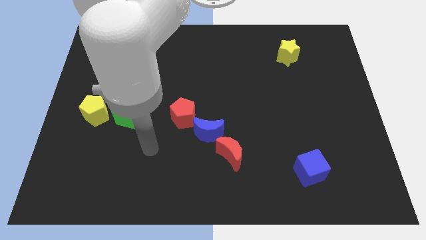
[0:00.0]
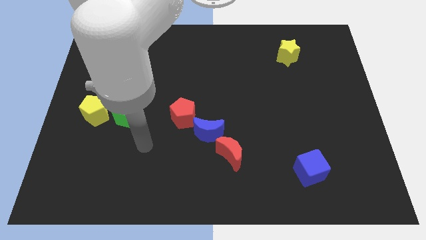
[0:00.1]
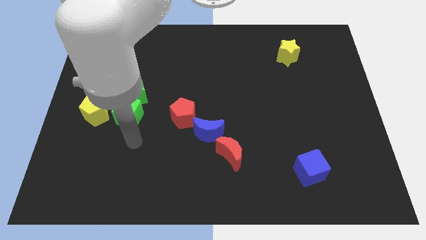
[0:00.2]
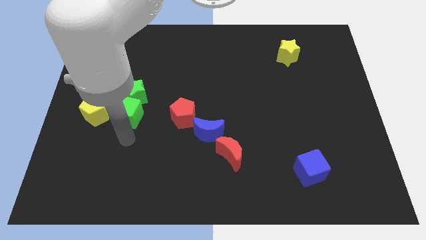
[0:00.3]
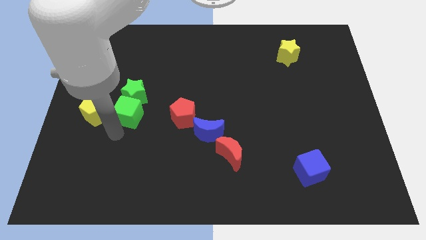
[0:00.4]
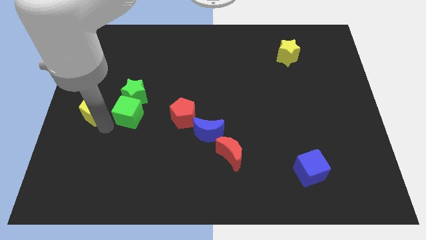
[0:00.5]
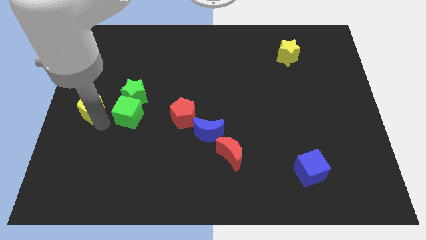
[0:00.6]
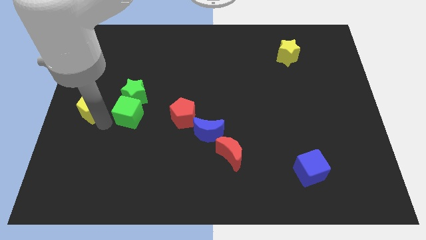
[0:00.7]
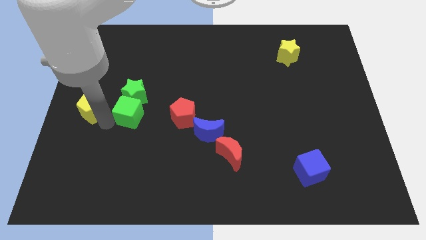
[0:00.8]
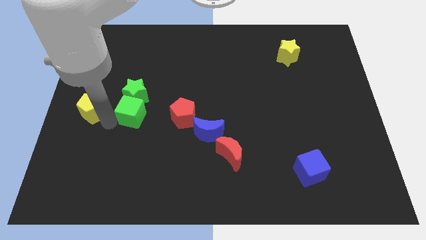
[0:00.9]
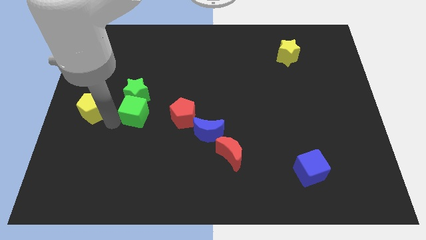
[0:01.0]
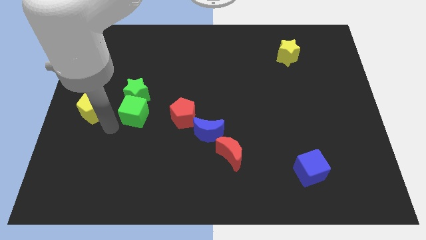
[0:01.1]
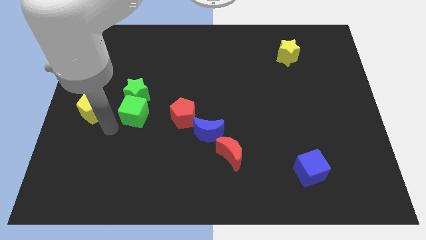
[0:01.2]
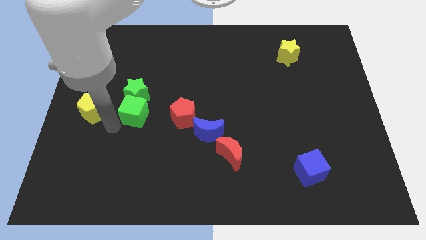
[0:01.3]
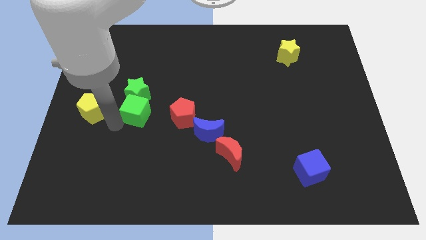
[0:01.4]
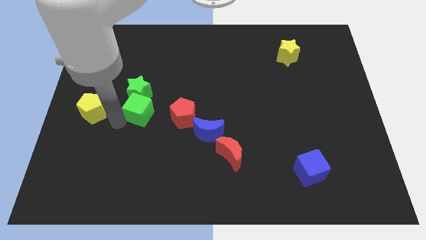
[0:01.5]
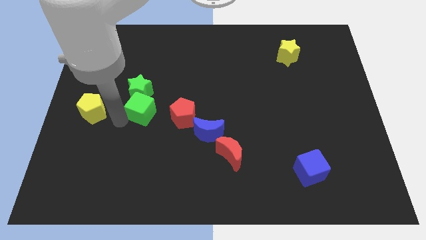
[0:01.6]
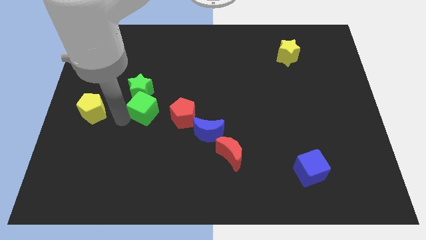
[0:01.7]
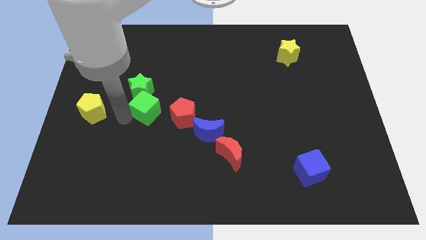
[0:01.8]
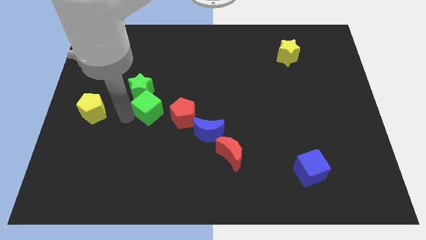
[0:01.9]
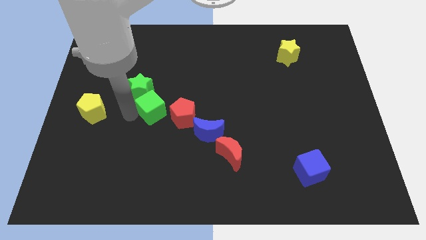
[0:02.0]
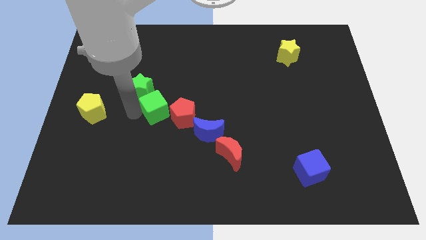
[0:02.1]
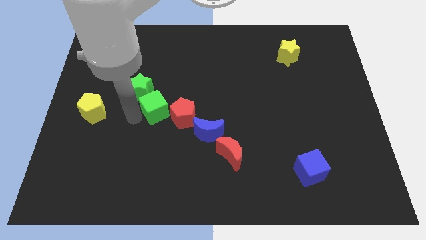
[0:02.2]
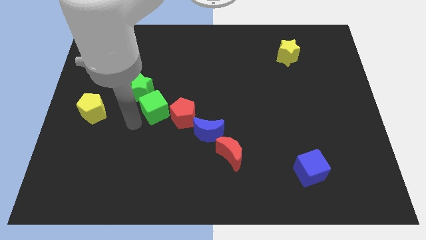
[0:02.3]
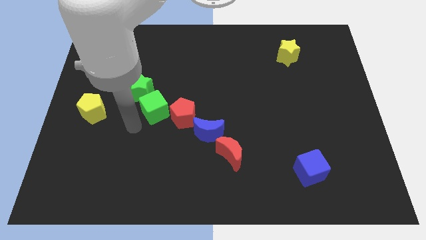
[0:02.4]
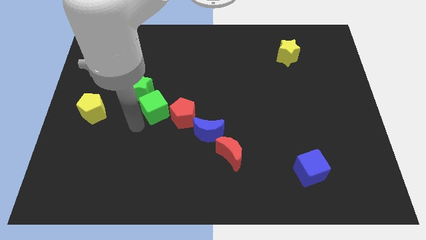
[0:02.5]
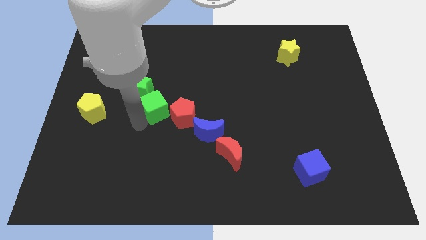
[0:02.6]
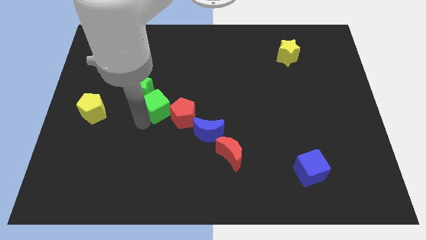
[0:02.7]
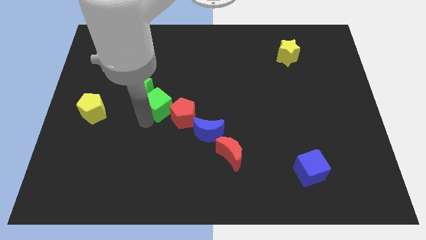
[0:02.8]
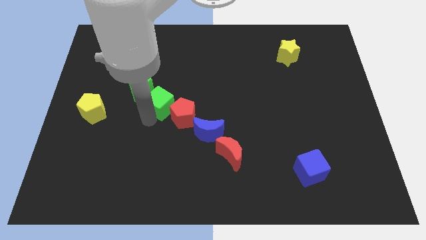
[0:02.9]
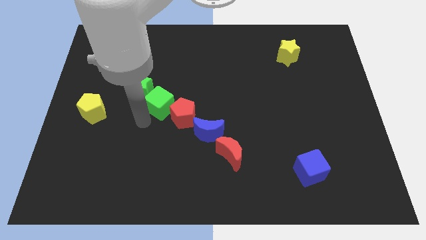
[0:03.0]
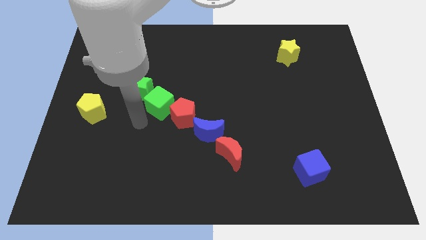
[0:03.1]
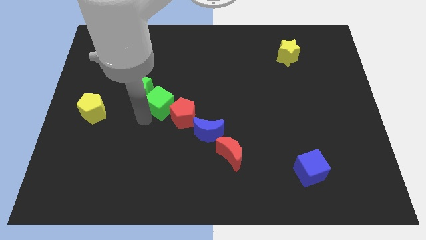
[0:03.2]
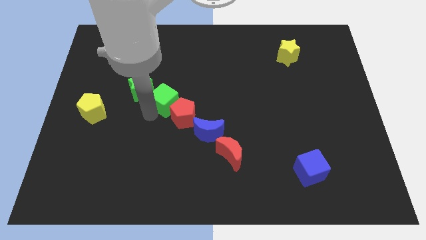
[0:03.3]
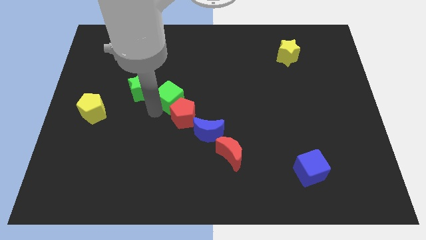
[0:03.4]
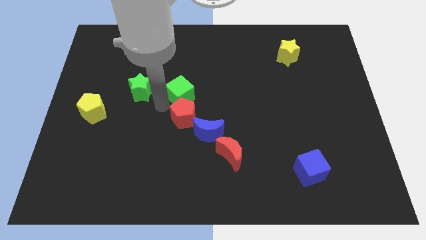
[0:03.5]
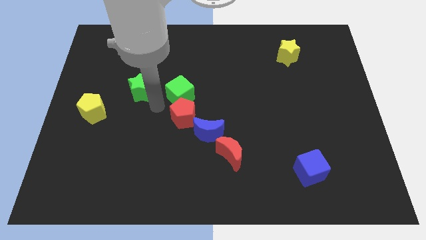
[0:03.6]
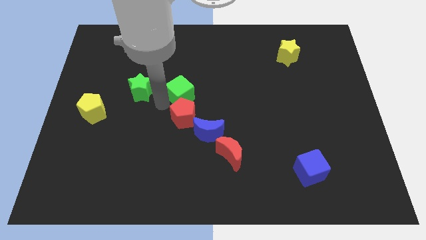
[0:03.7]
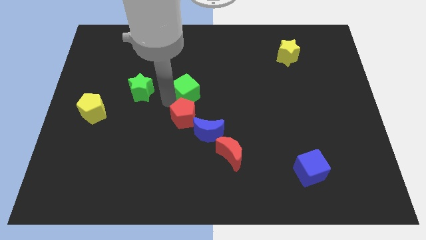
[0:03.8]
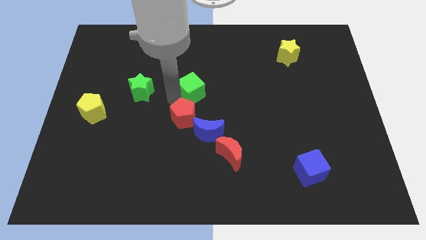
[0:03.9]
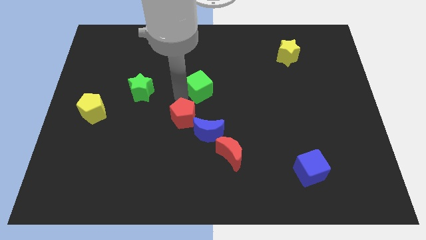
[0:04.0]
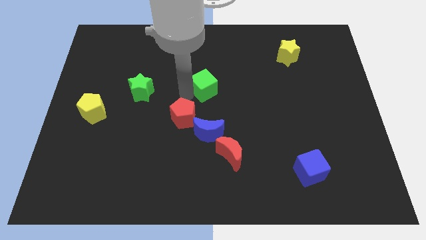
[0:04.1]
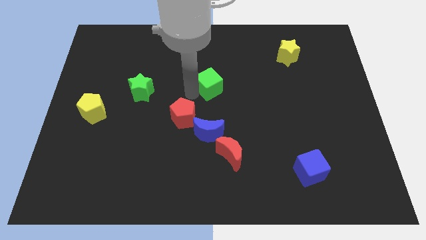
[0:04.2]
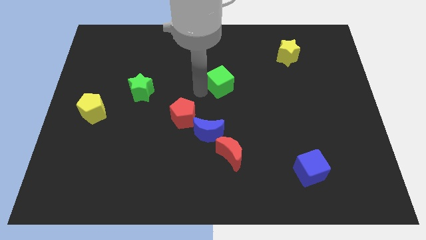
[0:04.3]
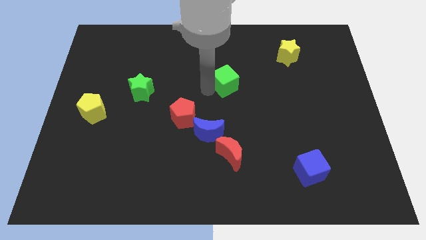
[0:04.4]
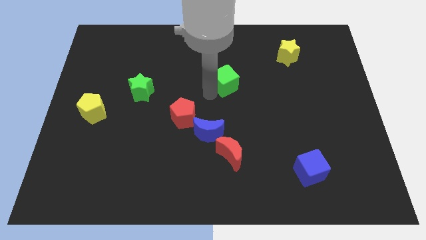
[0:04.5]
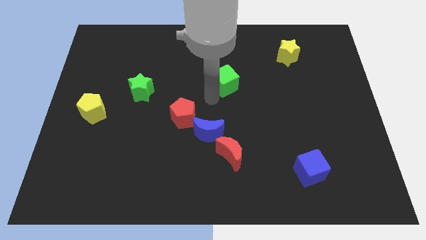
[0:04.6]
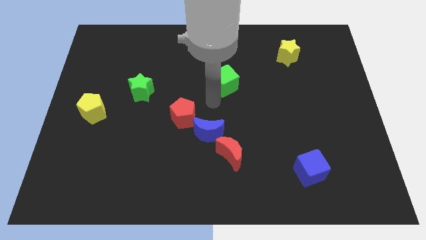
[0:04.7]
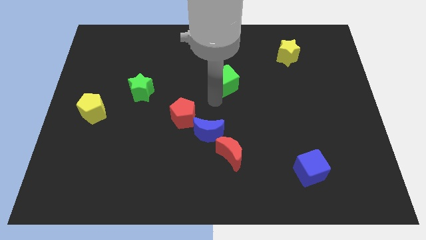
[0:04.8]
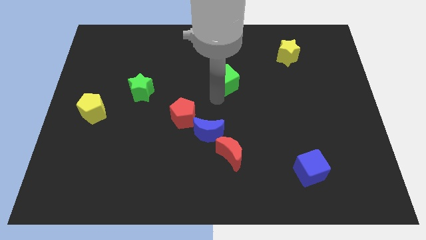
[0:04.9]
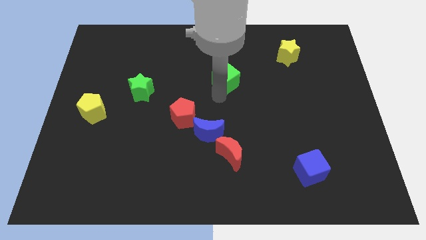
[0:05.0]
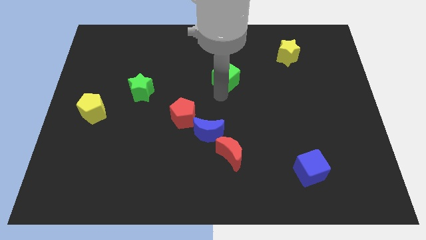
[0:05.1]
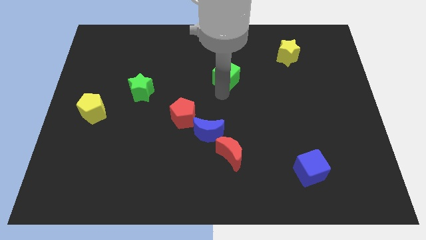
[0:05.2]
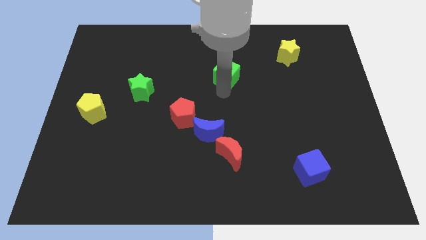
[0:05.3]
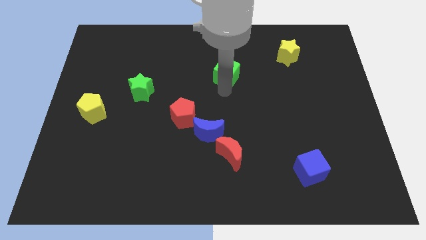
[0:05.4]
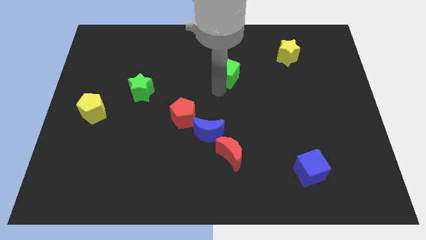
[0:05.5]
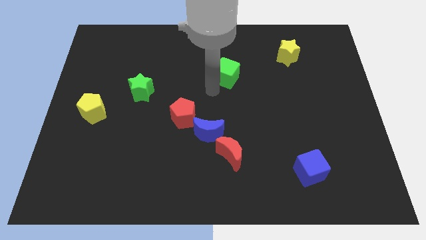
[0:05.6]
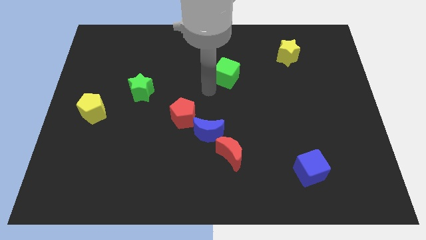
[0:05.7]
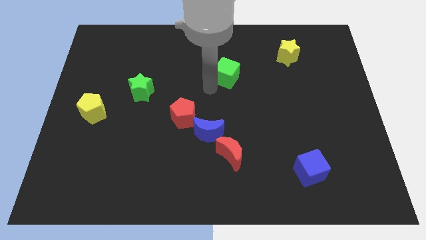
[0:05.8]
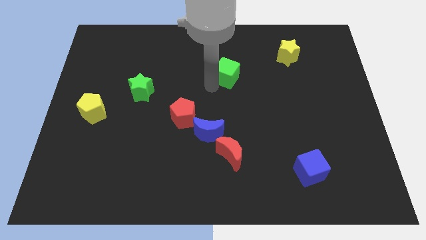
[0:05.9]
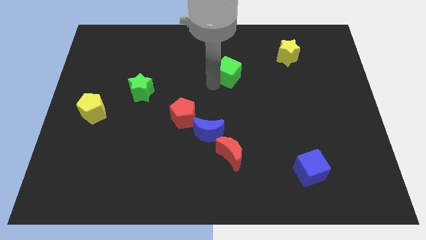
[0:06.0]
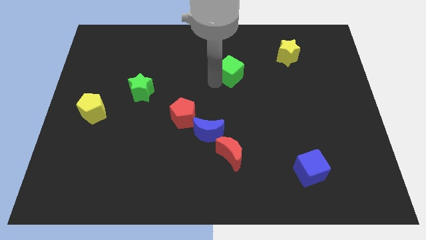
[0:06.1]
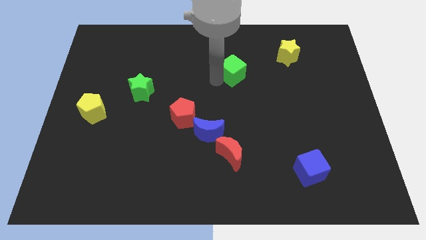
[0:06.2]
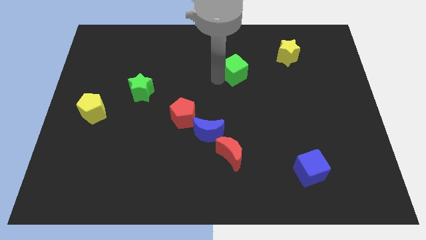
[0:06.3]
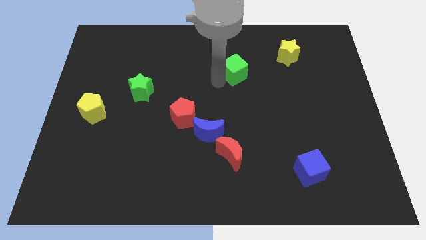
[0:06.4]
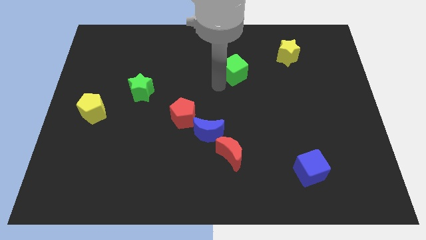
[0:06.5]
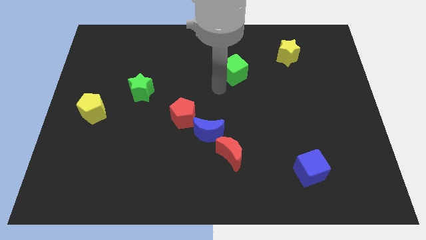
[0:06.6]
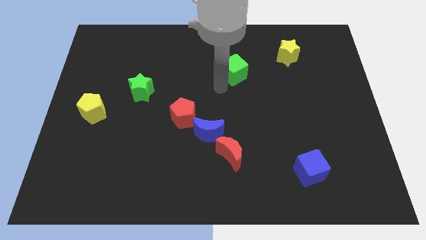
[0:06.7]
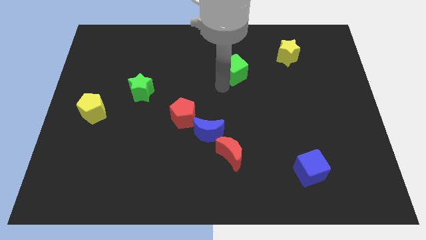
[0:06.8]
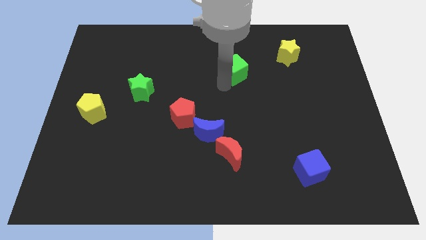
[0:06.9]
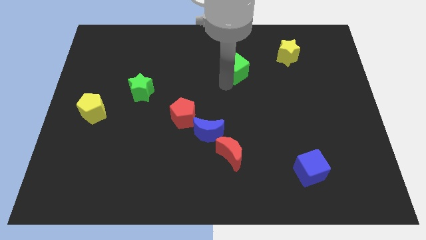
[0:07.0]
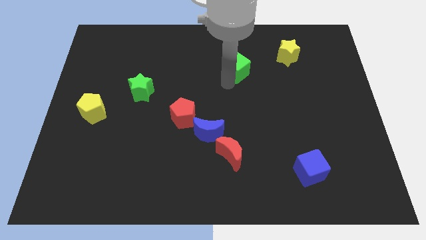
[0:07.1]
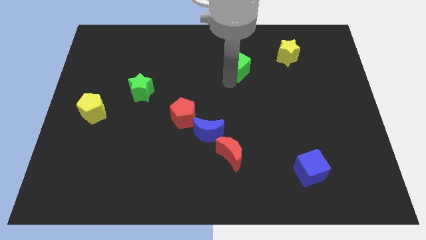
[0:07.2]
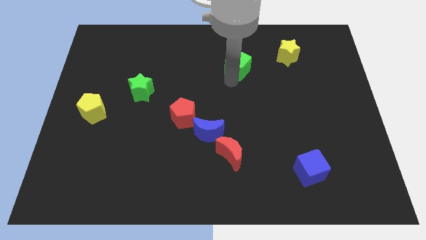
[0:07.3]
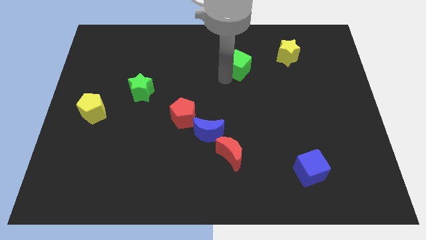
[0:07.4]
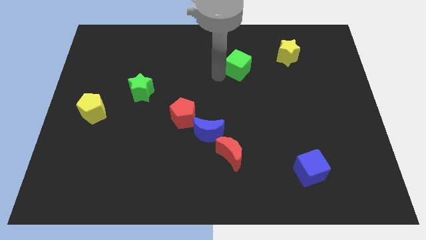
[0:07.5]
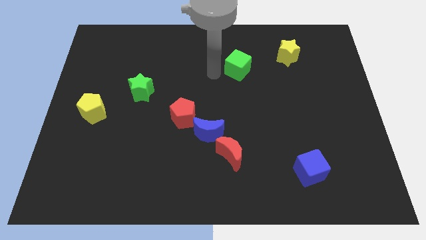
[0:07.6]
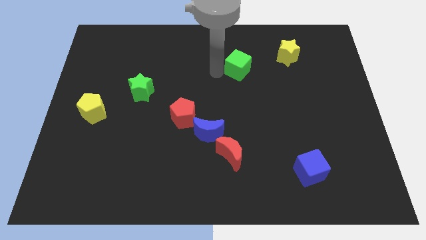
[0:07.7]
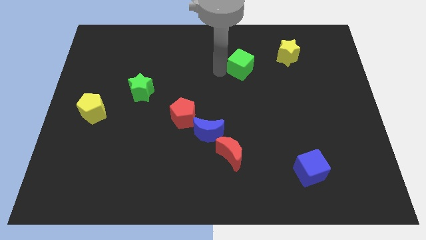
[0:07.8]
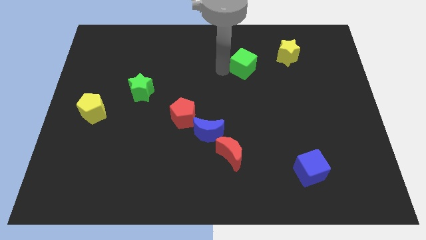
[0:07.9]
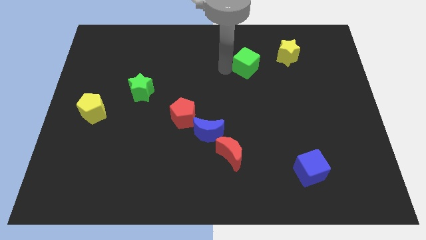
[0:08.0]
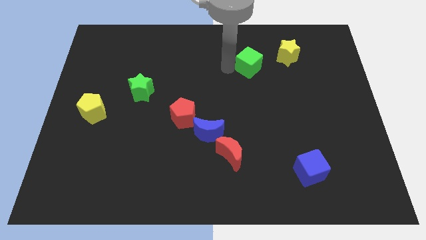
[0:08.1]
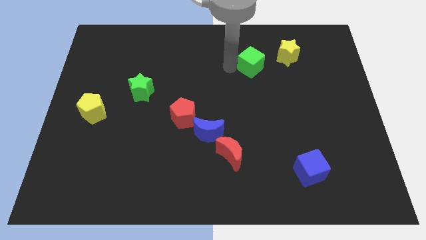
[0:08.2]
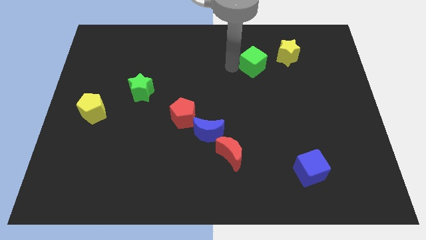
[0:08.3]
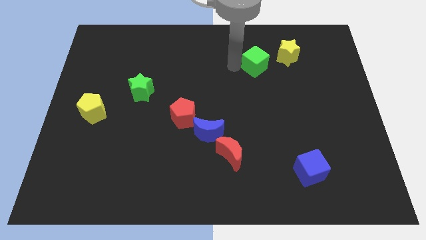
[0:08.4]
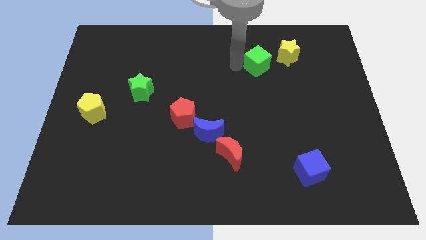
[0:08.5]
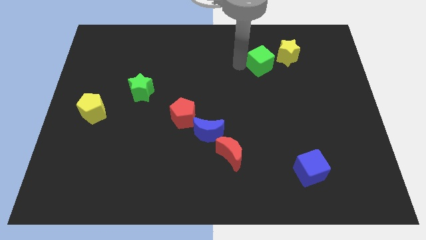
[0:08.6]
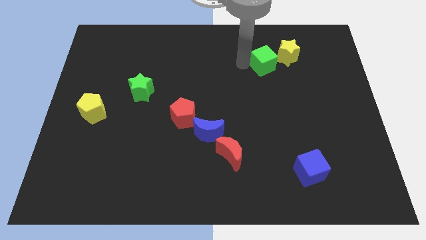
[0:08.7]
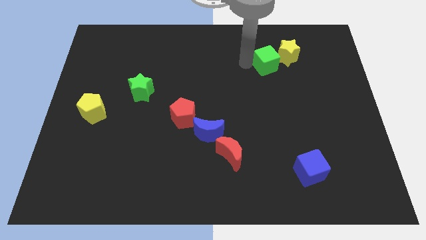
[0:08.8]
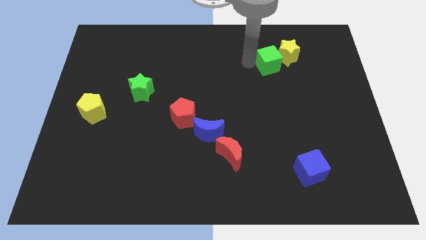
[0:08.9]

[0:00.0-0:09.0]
move the green cube close to the yellow star
